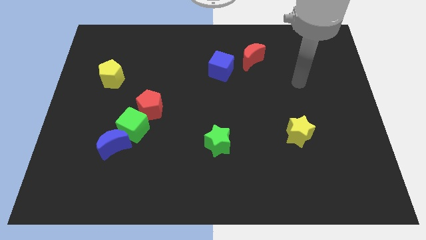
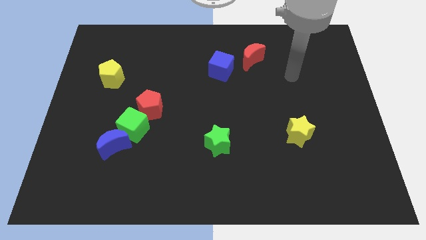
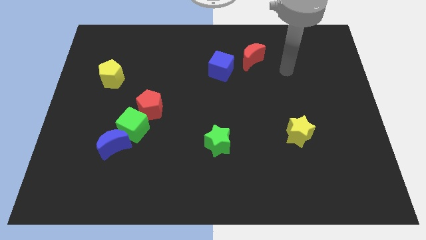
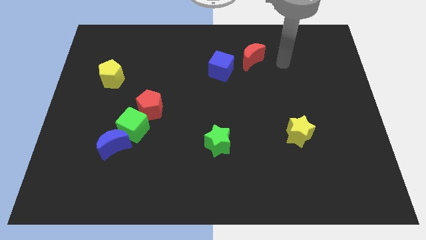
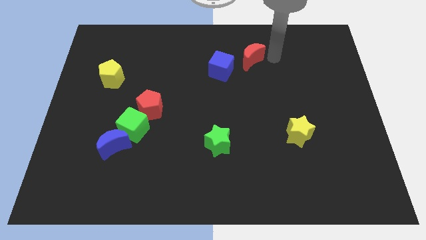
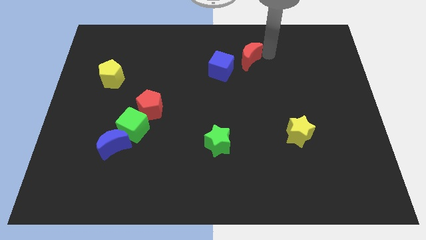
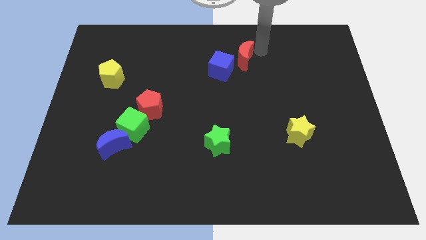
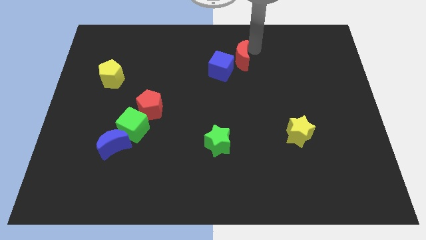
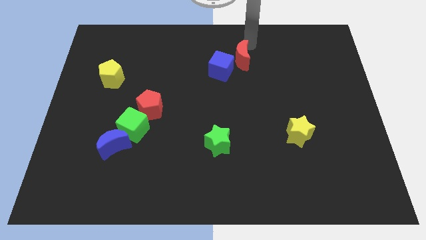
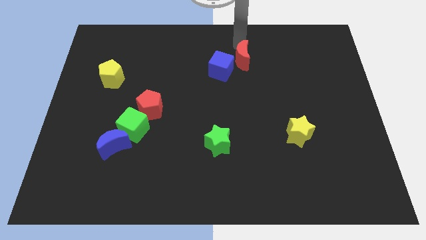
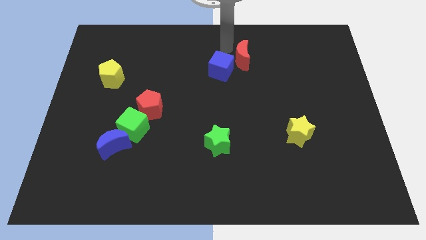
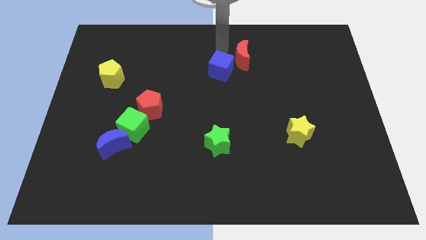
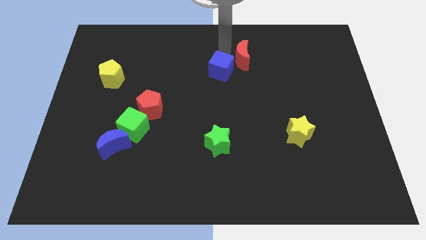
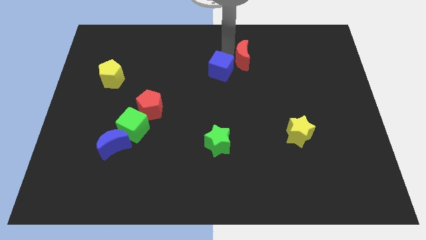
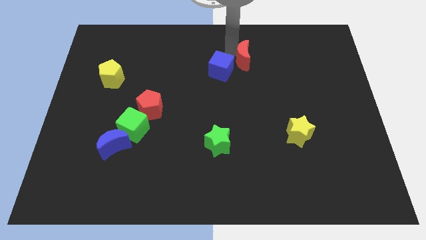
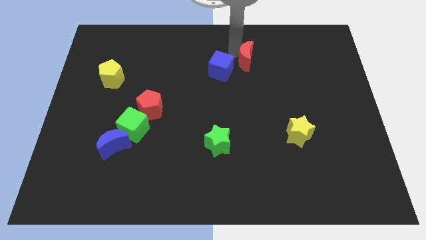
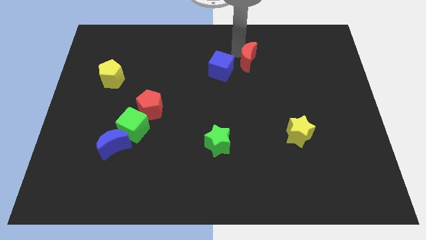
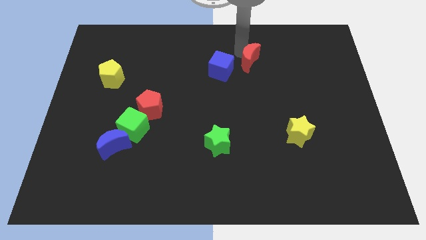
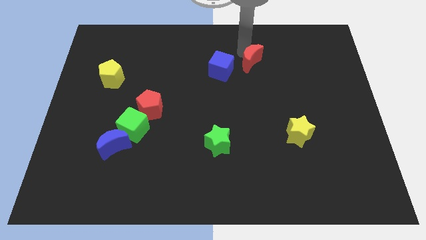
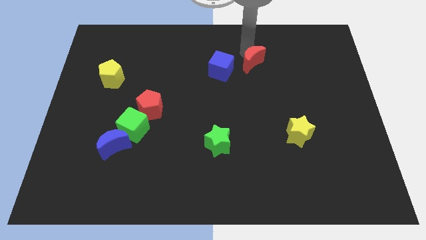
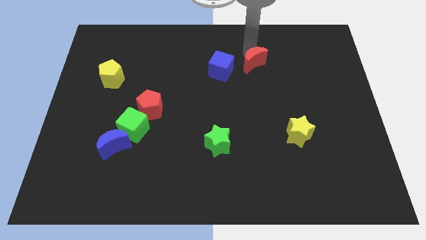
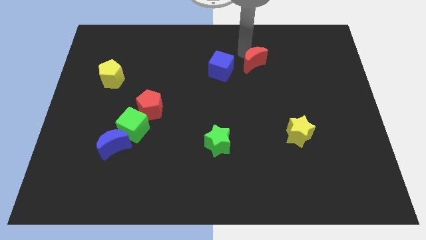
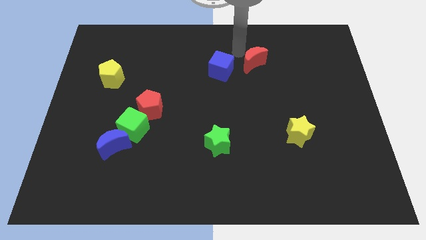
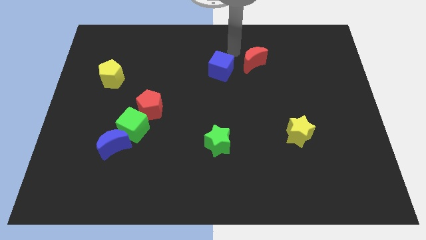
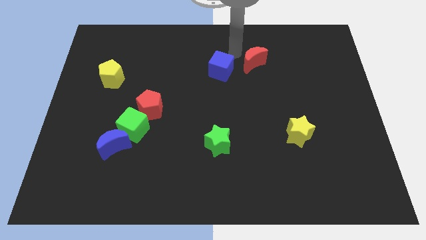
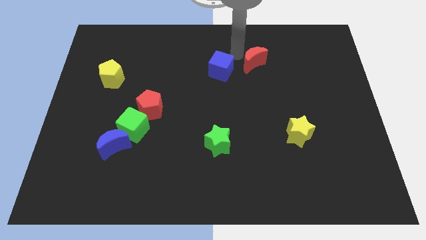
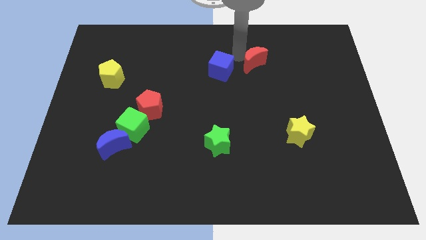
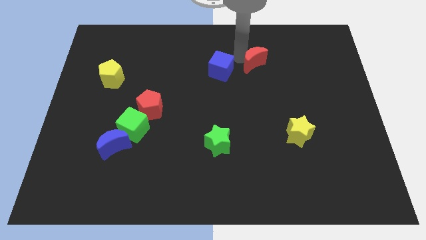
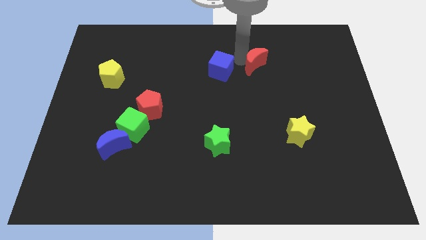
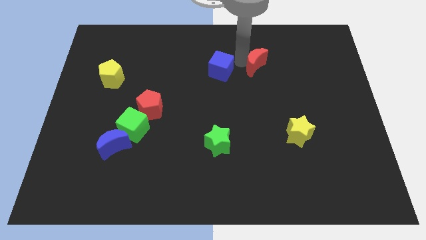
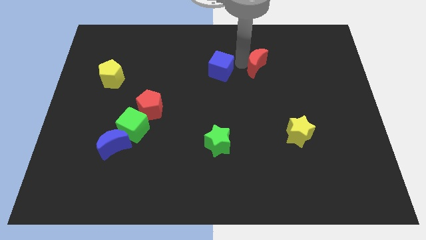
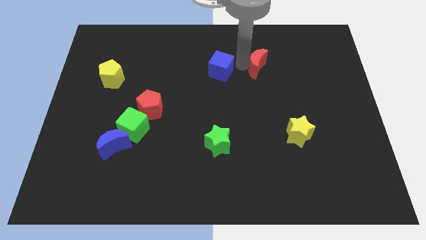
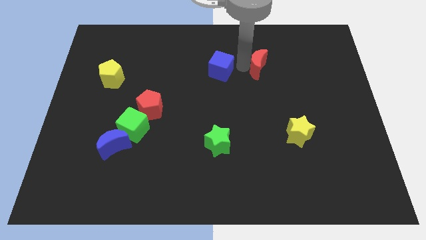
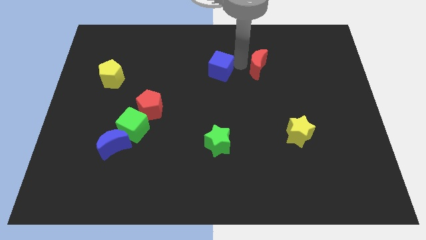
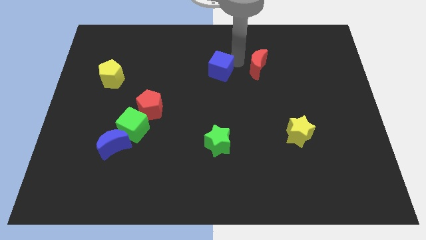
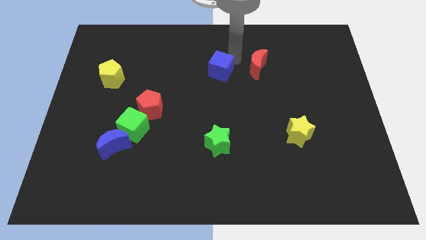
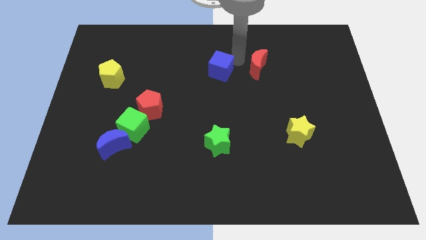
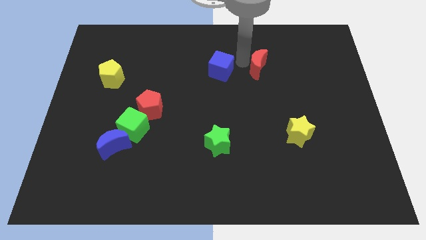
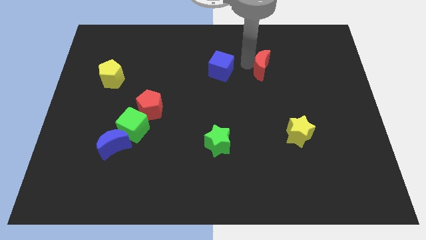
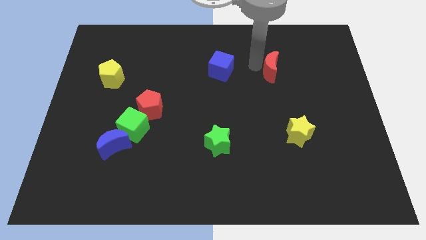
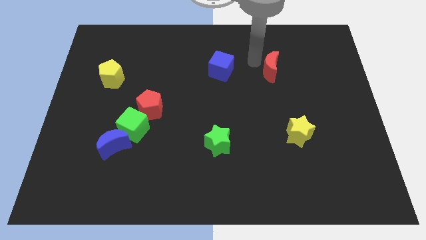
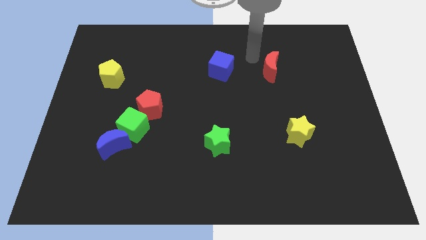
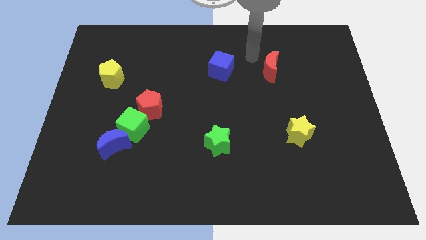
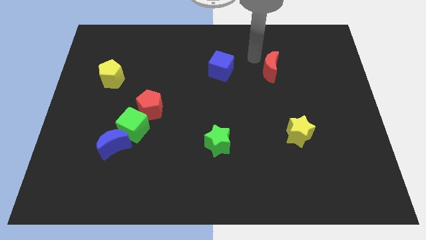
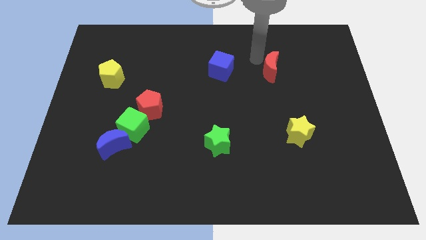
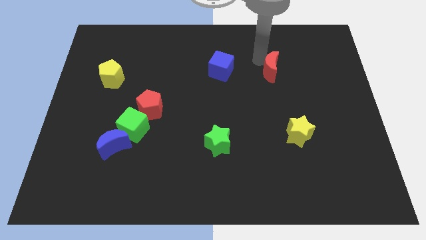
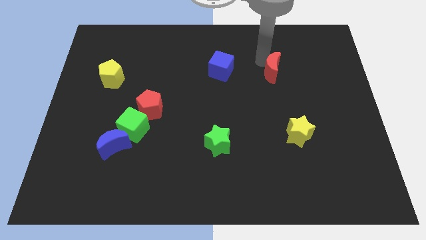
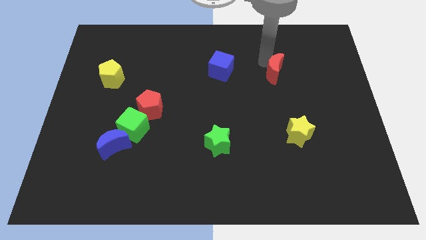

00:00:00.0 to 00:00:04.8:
slide the red moon a bit diagonally downwards and right

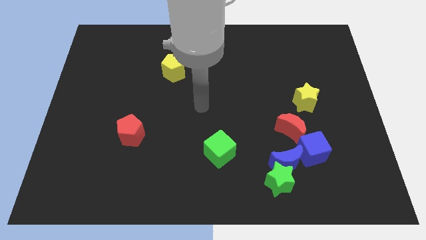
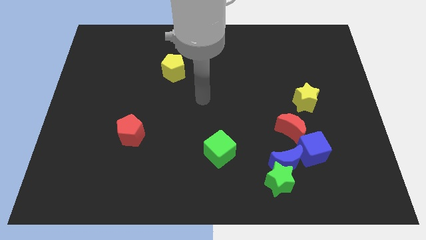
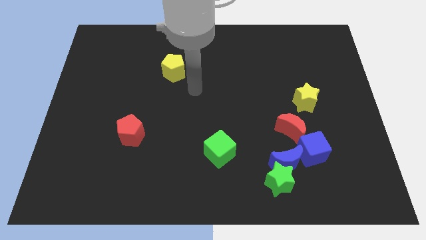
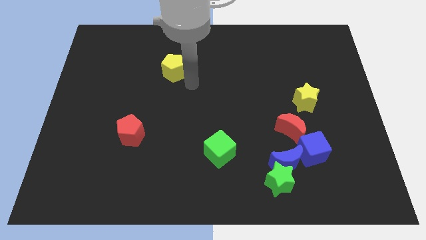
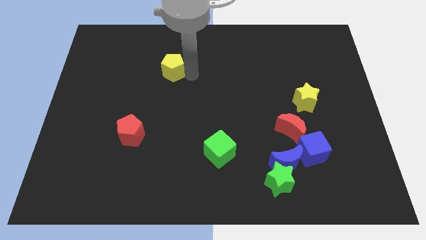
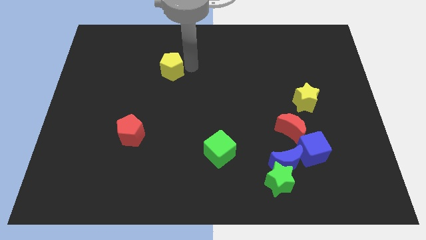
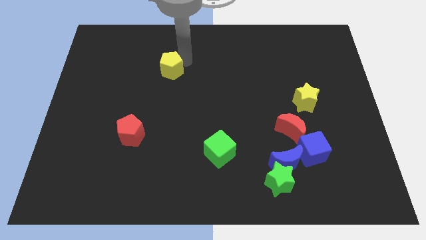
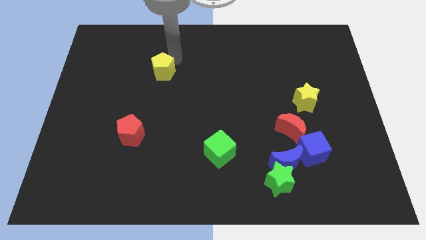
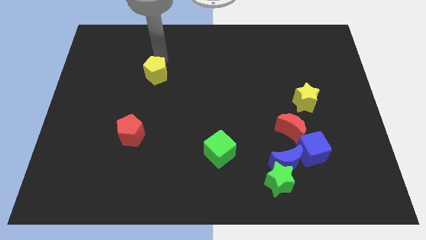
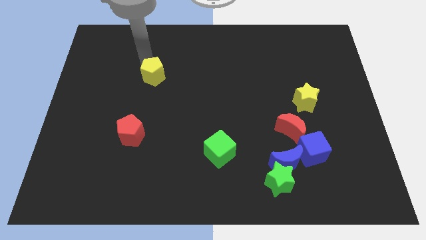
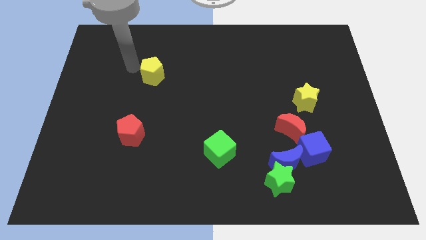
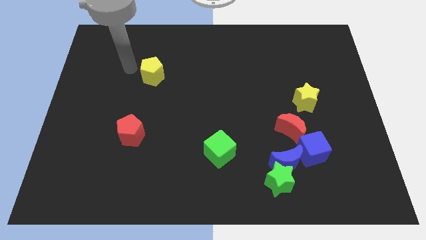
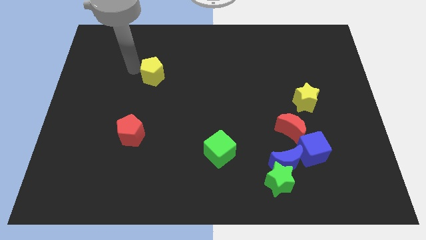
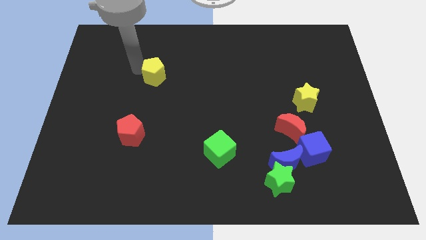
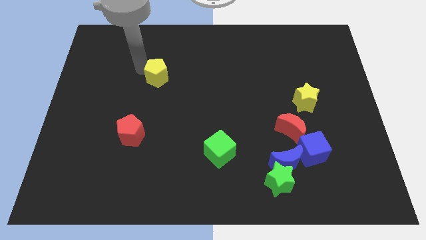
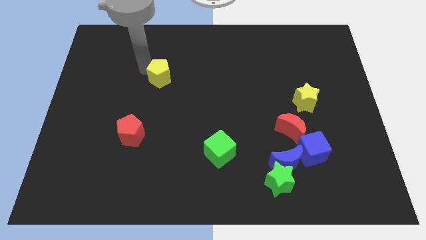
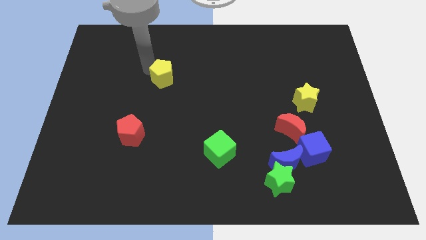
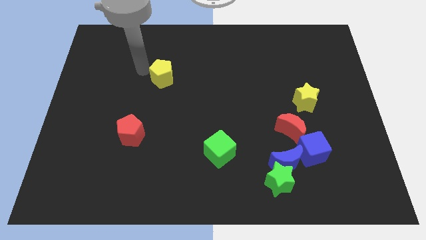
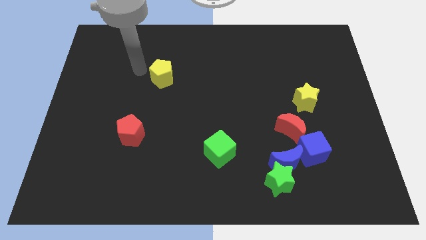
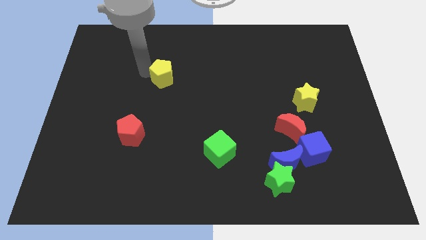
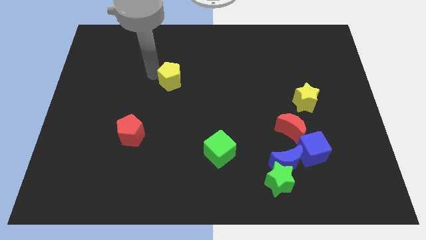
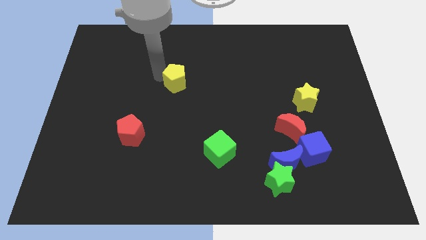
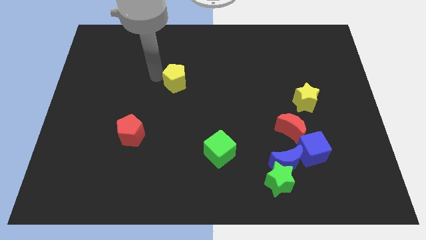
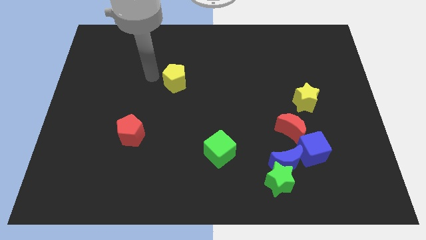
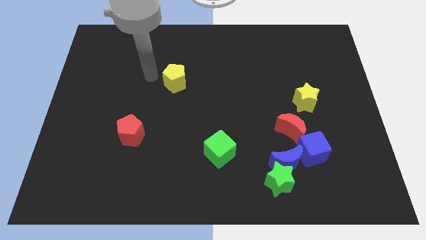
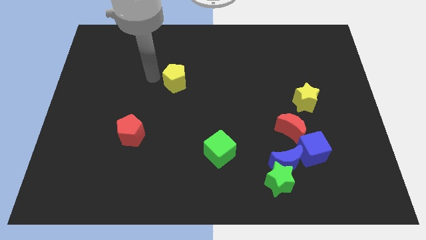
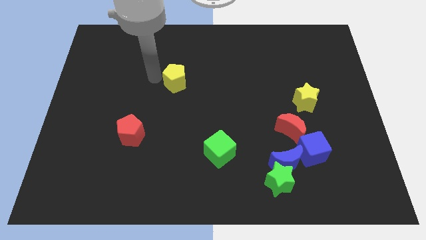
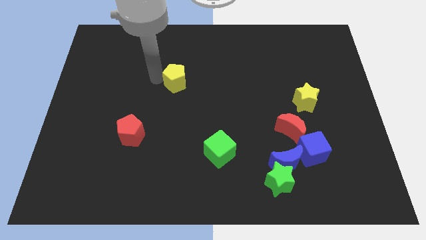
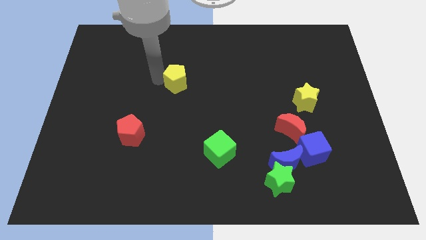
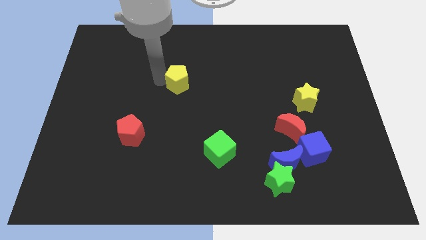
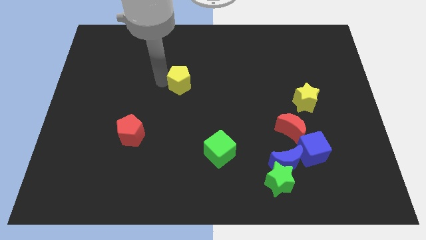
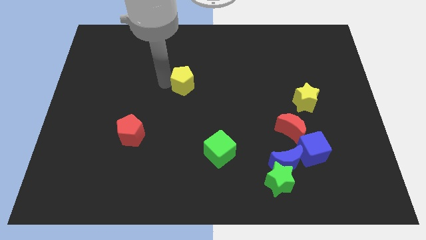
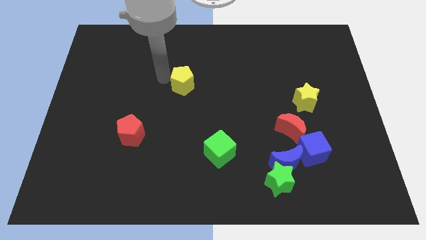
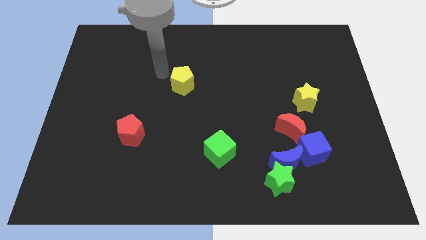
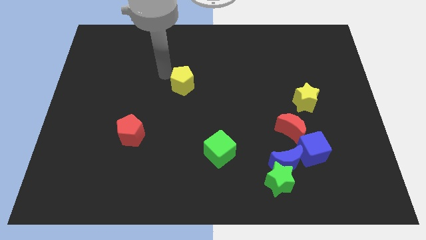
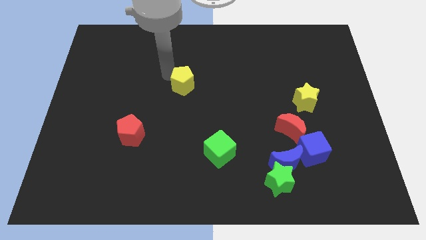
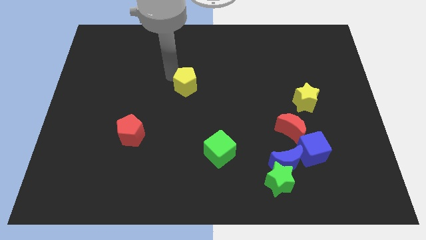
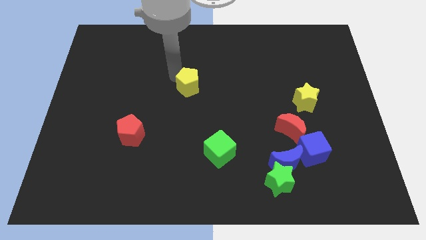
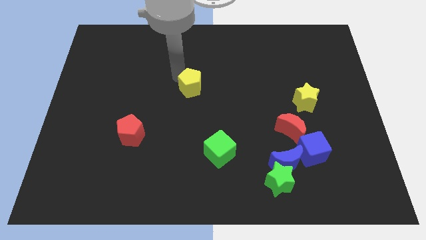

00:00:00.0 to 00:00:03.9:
push the yellow pentagon downwards and to the right a little
